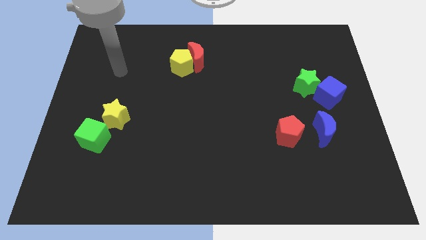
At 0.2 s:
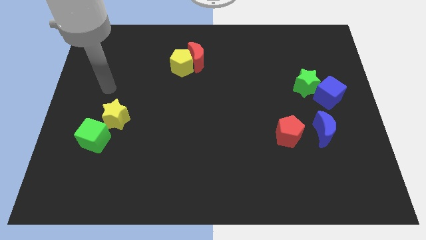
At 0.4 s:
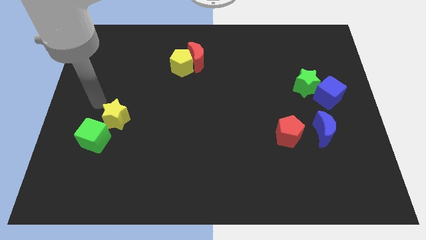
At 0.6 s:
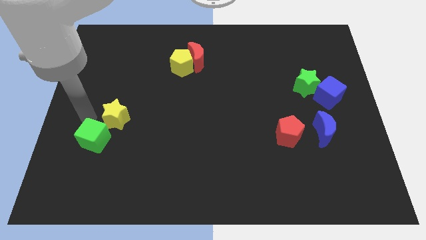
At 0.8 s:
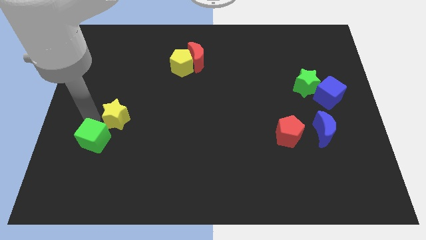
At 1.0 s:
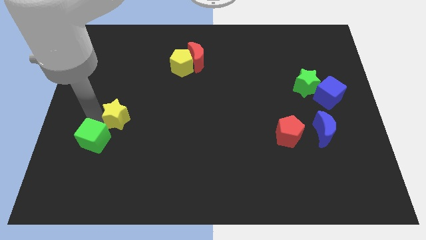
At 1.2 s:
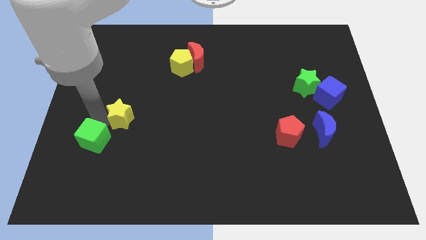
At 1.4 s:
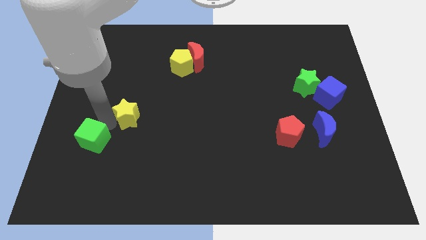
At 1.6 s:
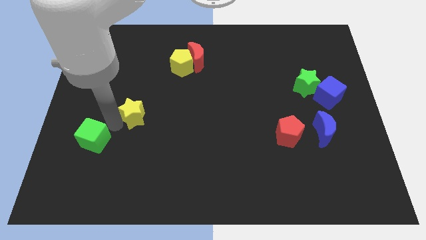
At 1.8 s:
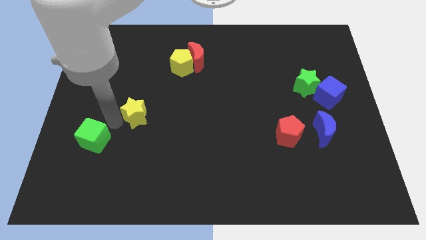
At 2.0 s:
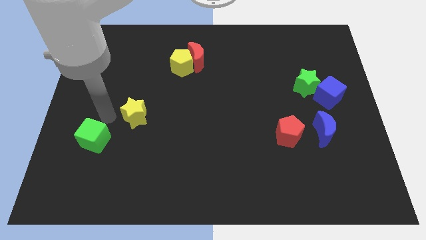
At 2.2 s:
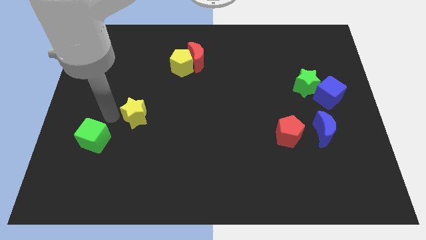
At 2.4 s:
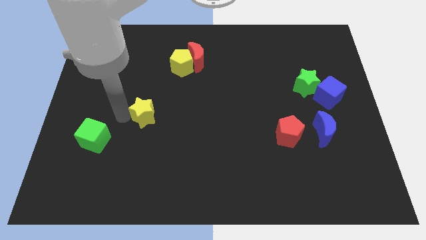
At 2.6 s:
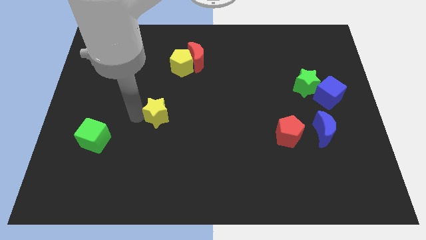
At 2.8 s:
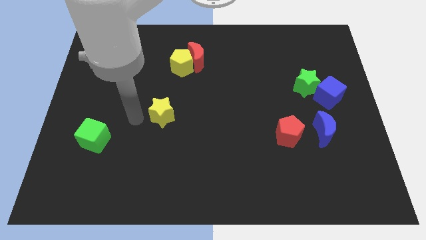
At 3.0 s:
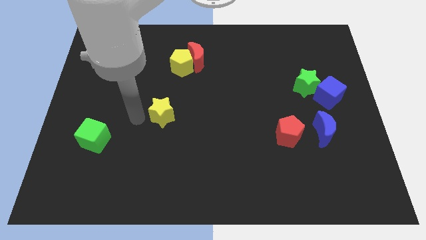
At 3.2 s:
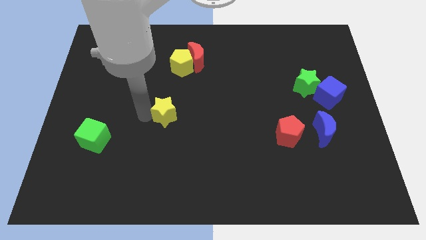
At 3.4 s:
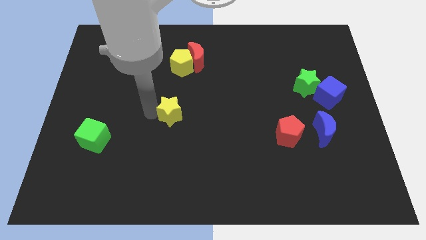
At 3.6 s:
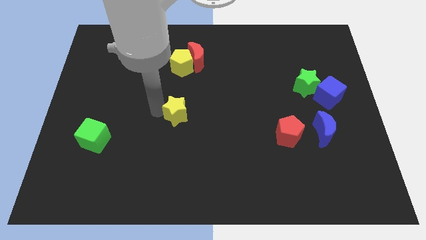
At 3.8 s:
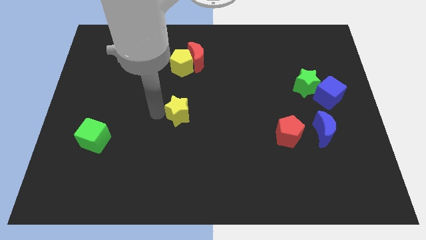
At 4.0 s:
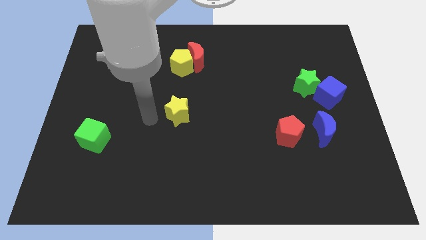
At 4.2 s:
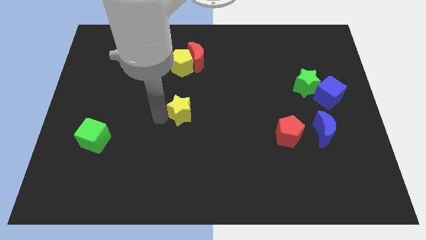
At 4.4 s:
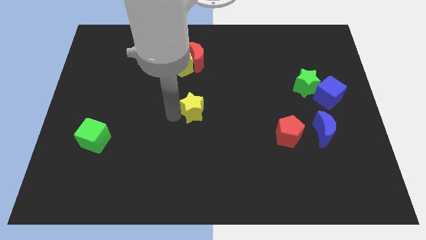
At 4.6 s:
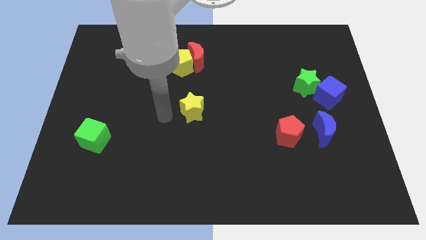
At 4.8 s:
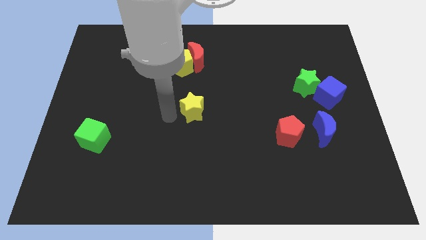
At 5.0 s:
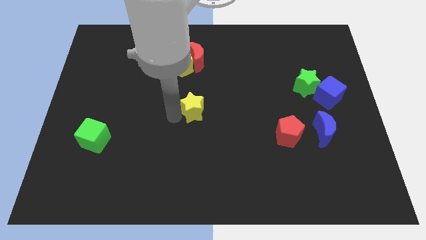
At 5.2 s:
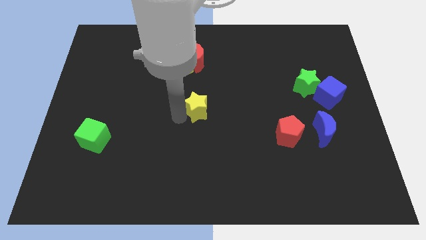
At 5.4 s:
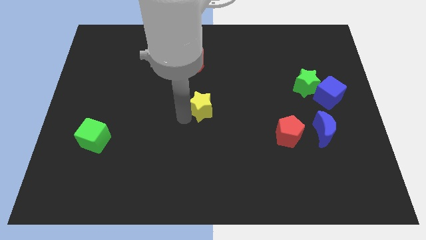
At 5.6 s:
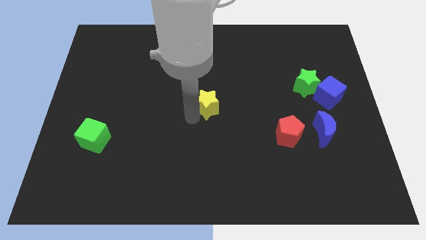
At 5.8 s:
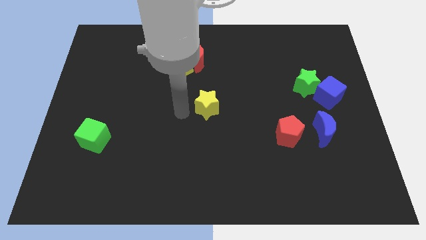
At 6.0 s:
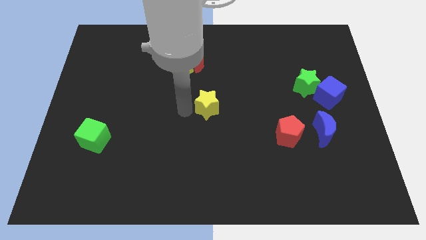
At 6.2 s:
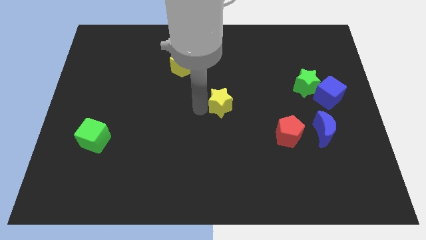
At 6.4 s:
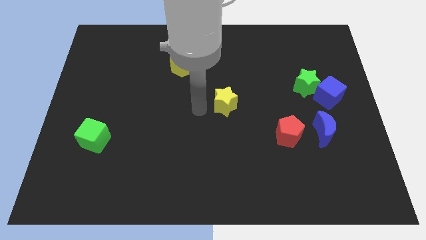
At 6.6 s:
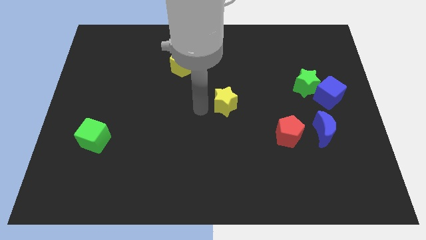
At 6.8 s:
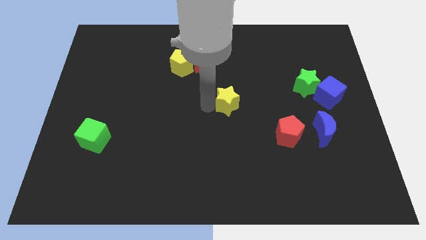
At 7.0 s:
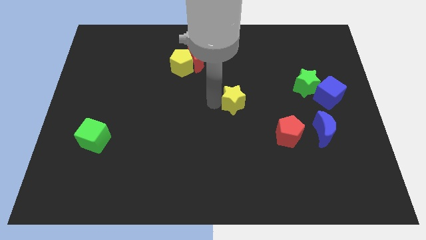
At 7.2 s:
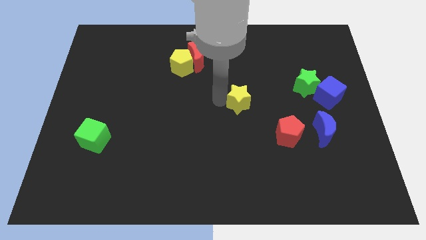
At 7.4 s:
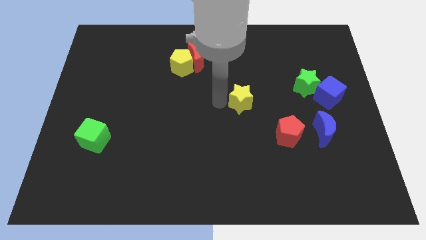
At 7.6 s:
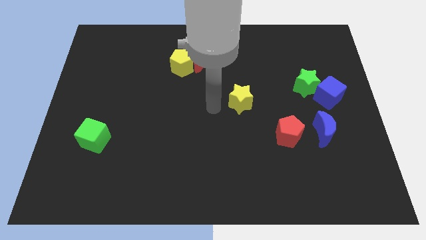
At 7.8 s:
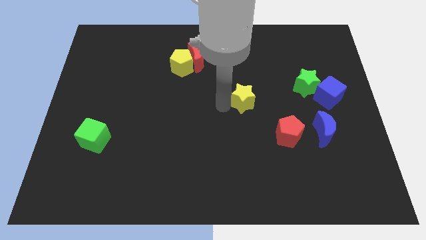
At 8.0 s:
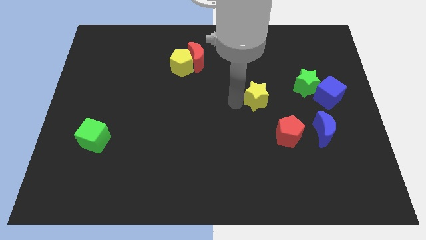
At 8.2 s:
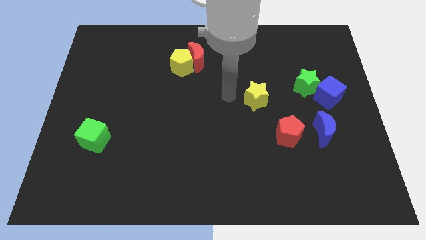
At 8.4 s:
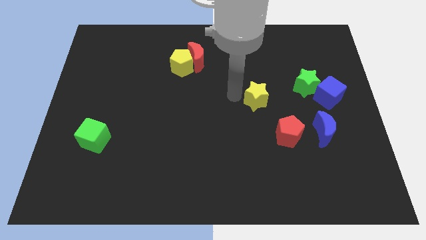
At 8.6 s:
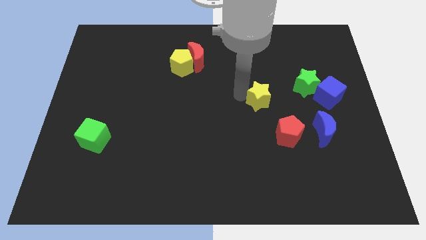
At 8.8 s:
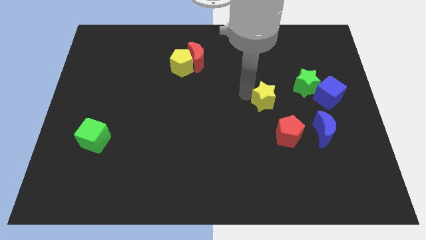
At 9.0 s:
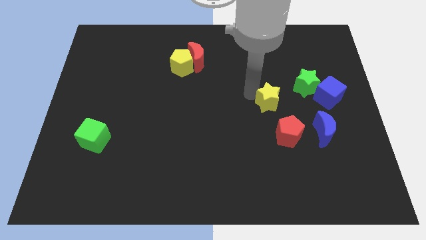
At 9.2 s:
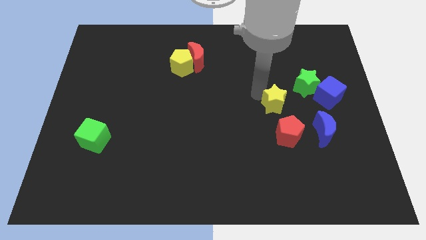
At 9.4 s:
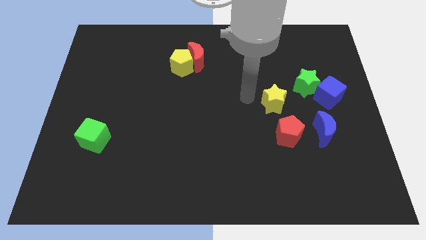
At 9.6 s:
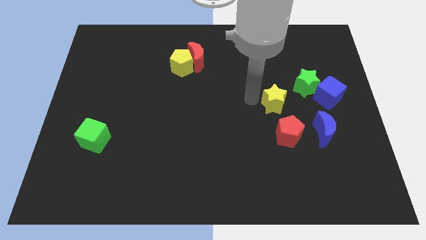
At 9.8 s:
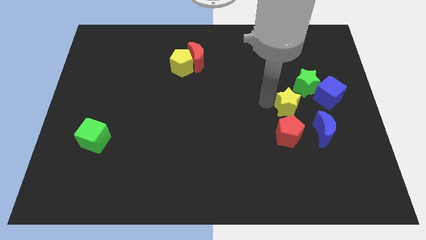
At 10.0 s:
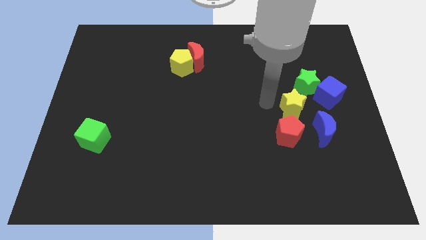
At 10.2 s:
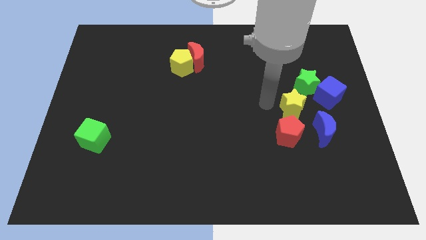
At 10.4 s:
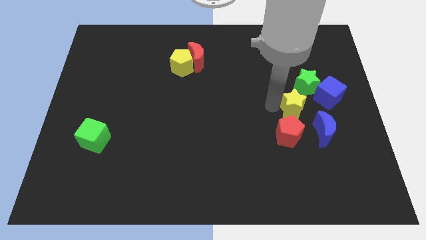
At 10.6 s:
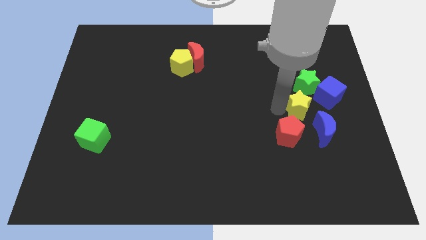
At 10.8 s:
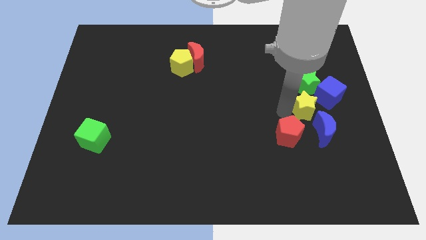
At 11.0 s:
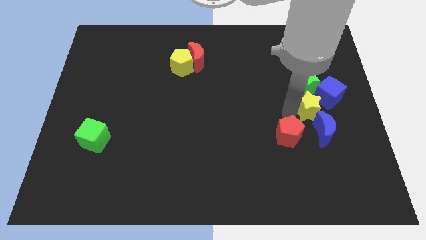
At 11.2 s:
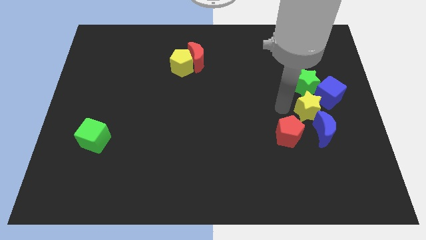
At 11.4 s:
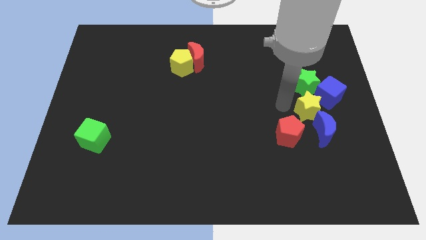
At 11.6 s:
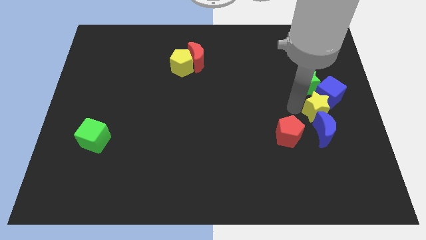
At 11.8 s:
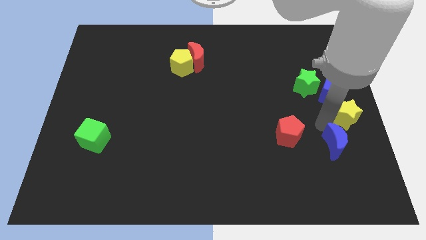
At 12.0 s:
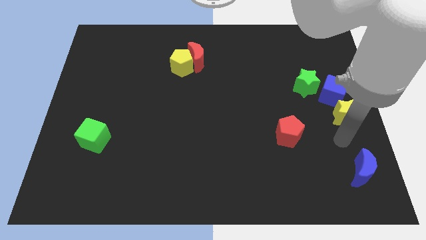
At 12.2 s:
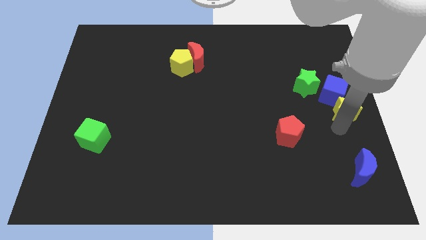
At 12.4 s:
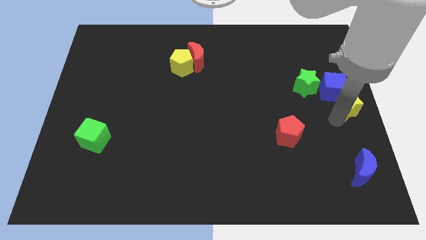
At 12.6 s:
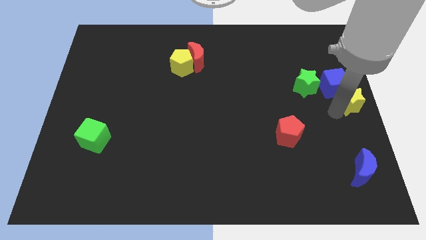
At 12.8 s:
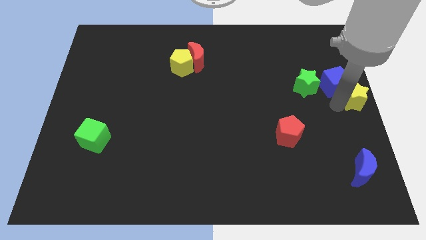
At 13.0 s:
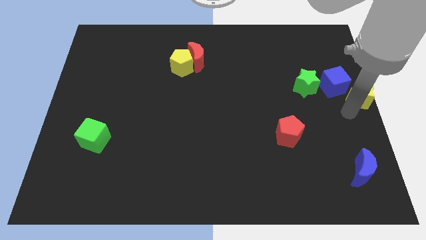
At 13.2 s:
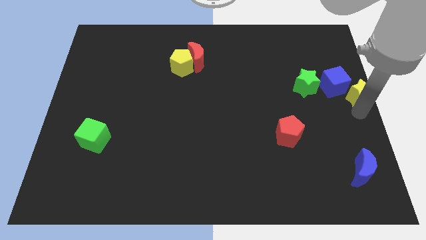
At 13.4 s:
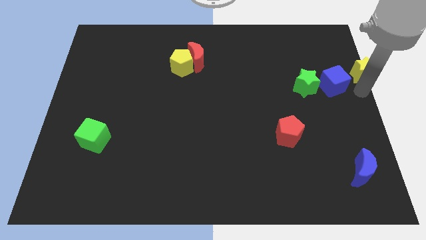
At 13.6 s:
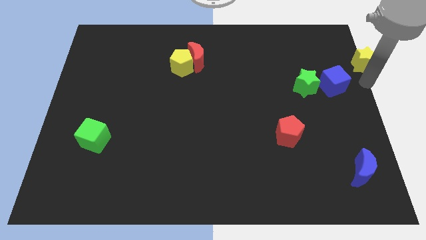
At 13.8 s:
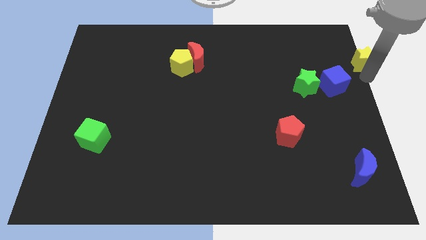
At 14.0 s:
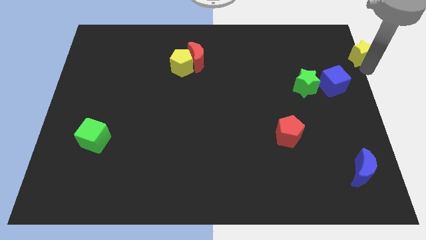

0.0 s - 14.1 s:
move the yellow star to the top right corner
